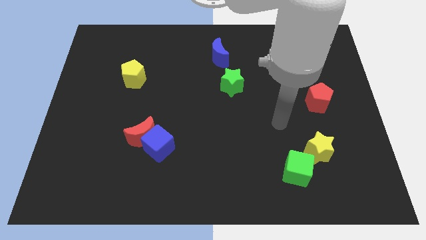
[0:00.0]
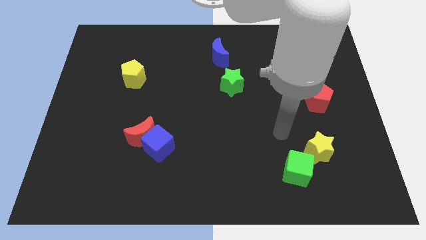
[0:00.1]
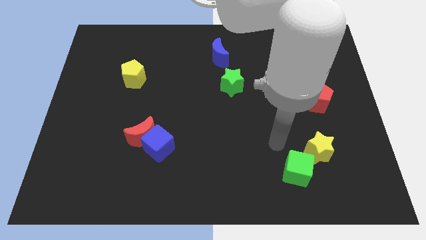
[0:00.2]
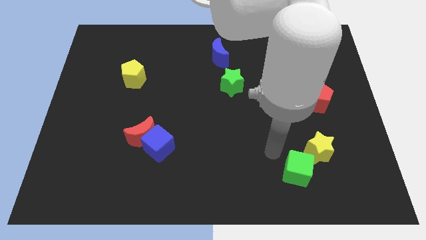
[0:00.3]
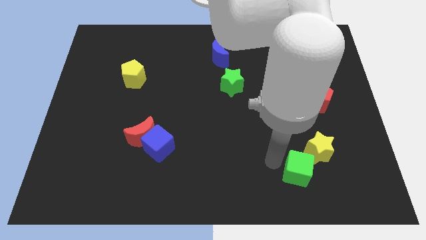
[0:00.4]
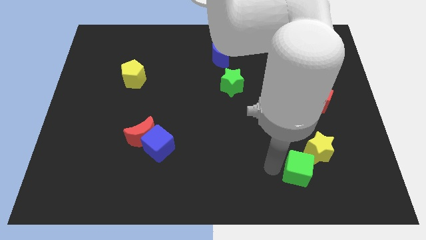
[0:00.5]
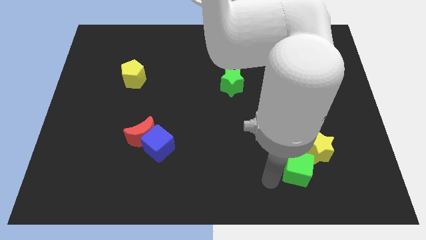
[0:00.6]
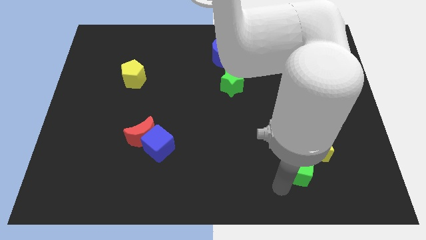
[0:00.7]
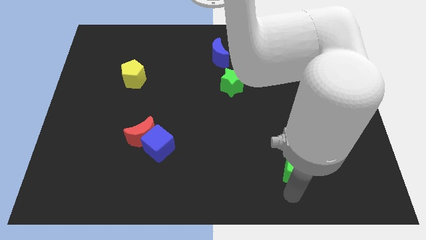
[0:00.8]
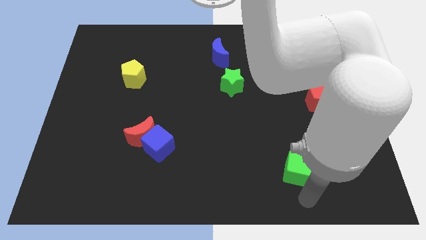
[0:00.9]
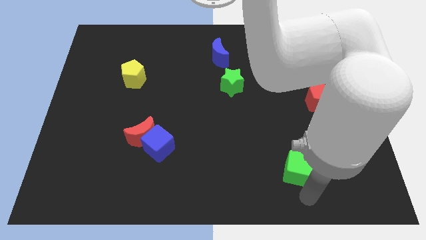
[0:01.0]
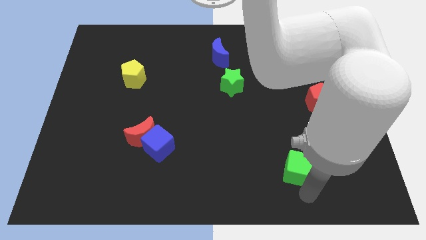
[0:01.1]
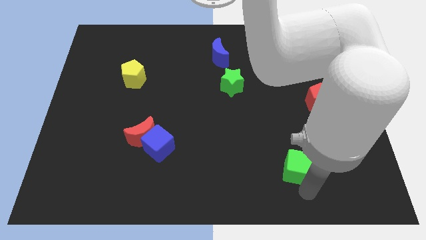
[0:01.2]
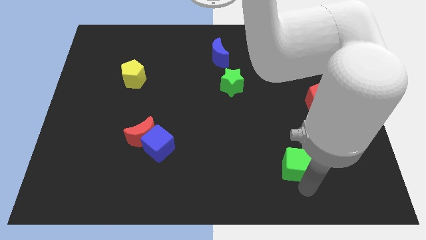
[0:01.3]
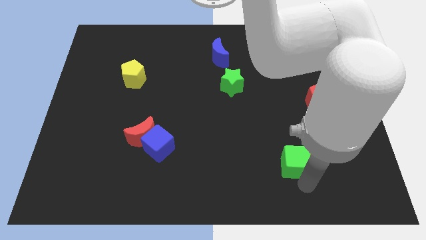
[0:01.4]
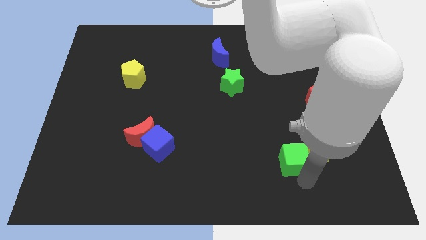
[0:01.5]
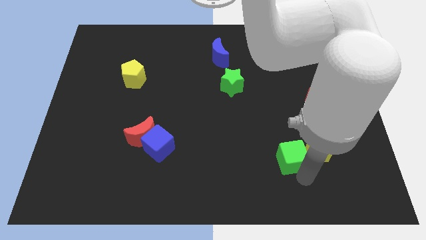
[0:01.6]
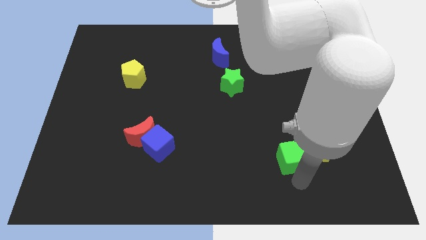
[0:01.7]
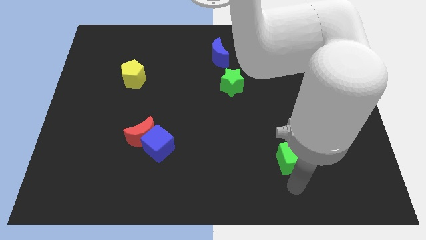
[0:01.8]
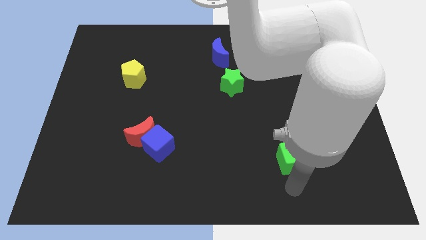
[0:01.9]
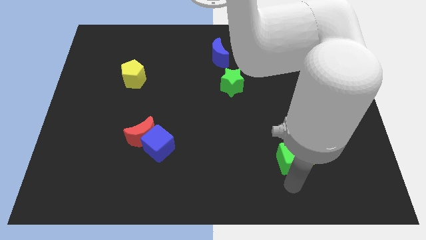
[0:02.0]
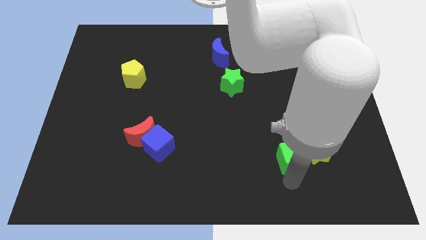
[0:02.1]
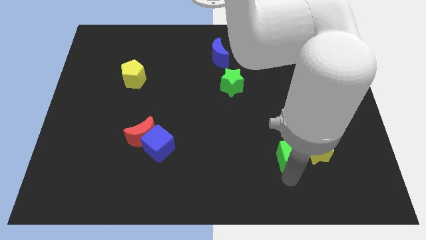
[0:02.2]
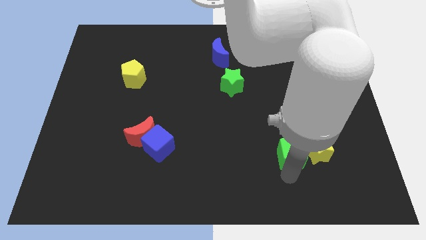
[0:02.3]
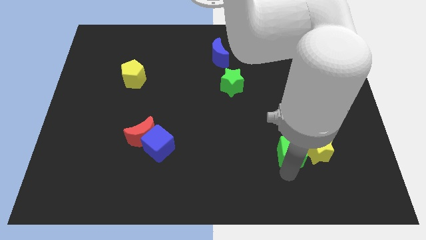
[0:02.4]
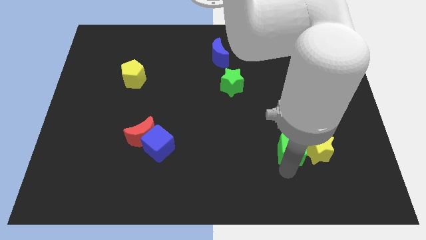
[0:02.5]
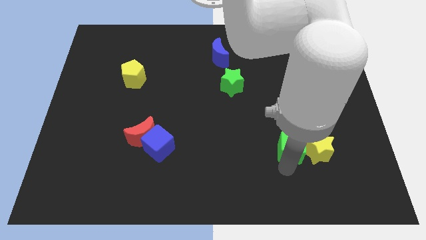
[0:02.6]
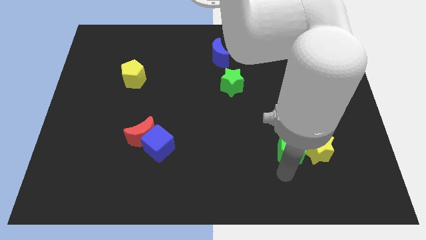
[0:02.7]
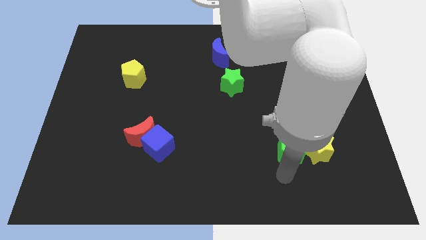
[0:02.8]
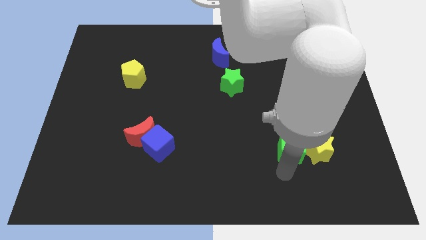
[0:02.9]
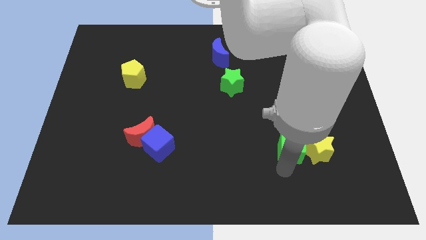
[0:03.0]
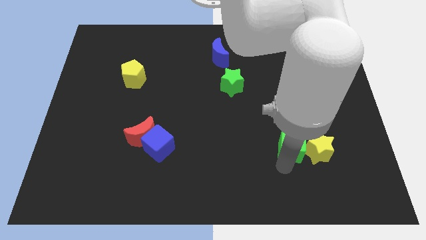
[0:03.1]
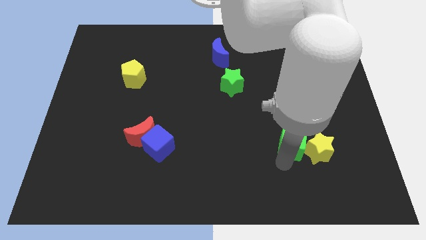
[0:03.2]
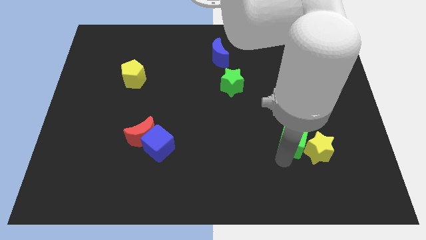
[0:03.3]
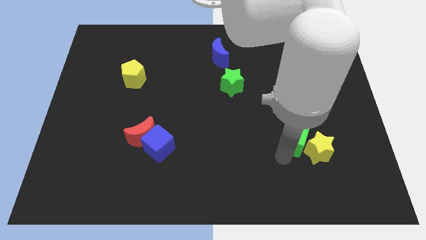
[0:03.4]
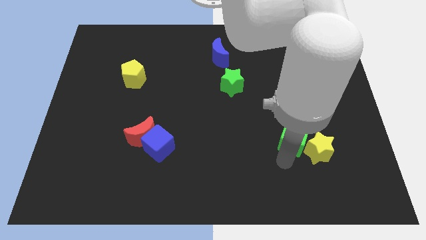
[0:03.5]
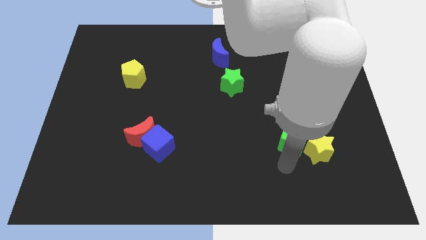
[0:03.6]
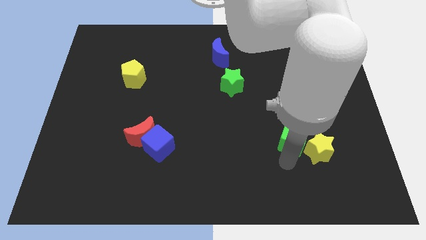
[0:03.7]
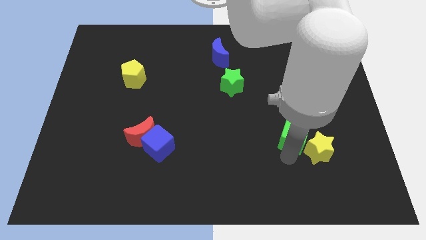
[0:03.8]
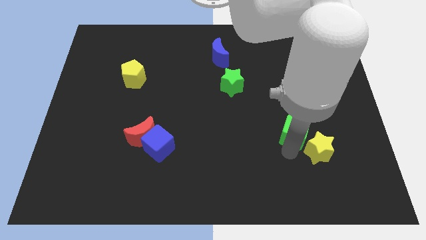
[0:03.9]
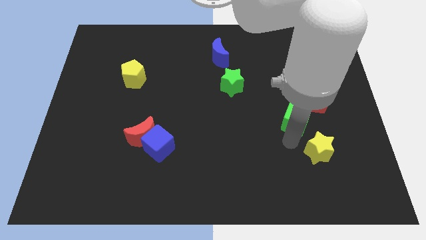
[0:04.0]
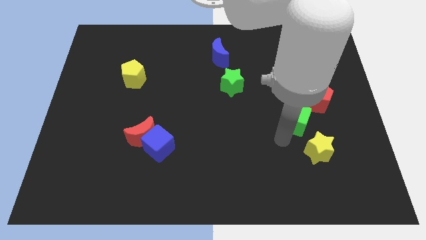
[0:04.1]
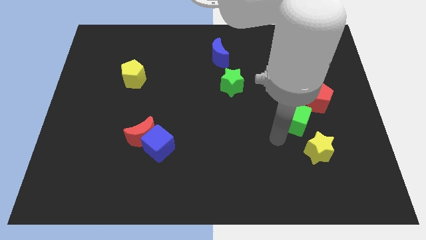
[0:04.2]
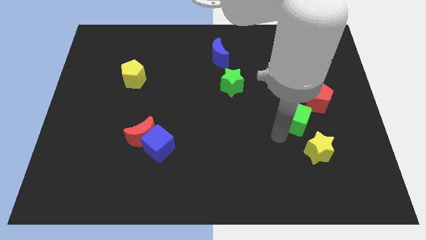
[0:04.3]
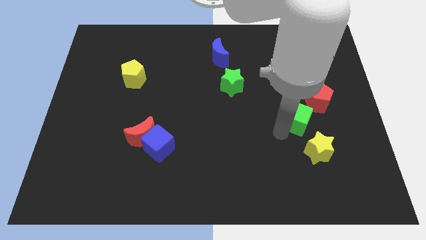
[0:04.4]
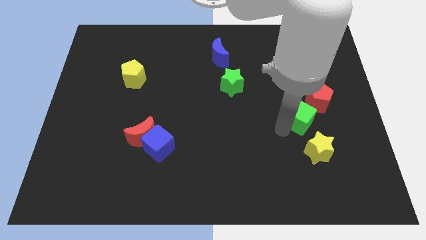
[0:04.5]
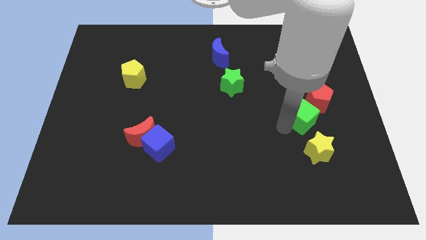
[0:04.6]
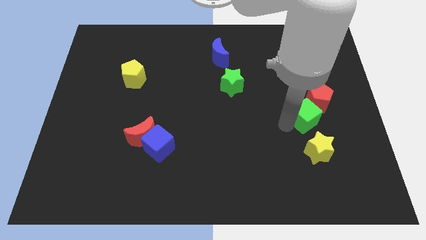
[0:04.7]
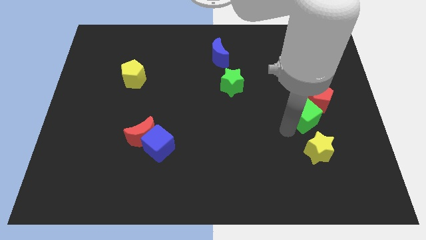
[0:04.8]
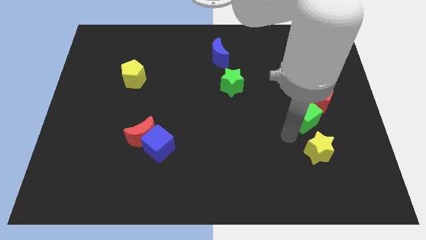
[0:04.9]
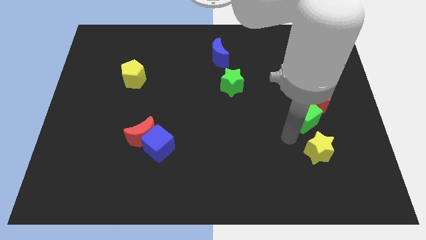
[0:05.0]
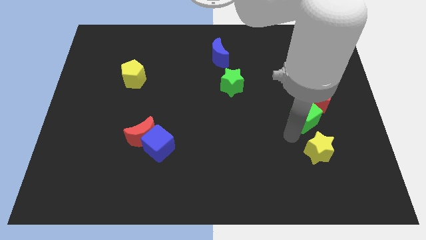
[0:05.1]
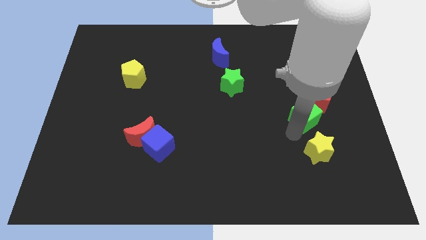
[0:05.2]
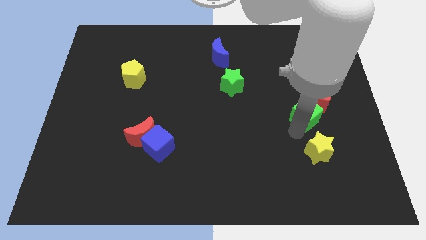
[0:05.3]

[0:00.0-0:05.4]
put the green cube to the red pentagon

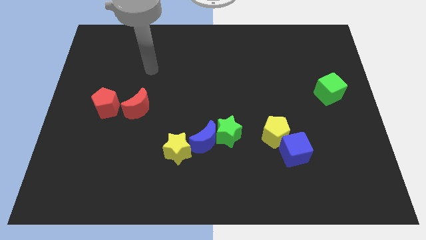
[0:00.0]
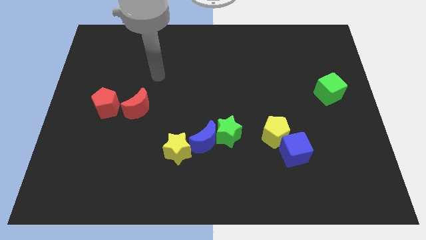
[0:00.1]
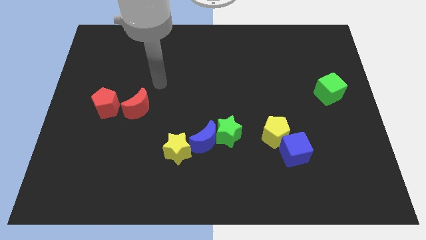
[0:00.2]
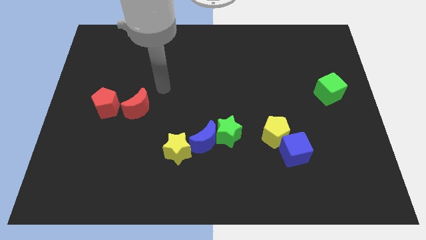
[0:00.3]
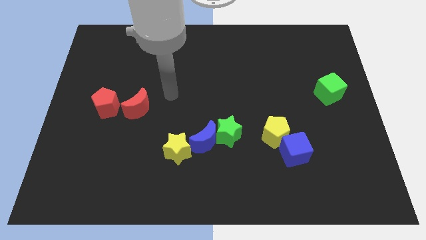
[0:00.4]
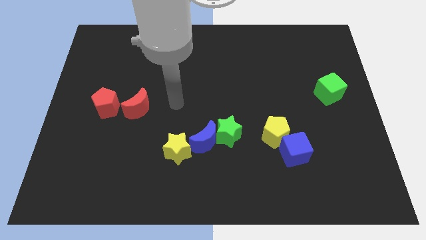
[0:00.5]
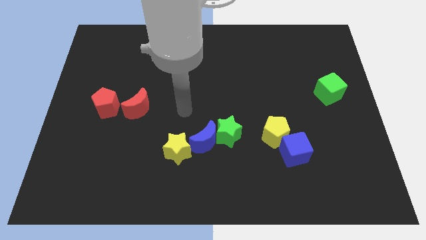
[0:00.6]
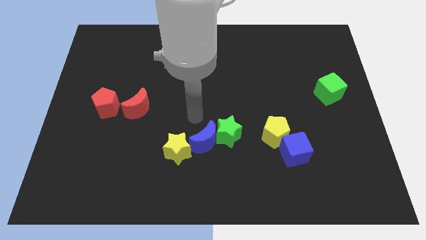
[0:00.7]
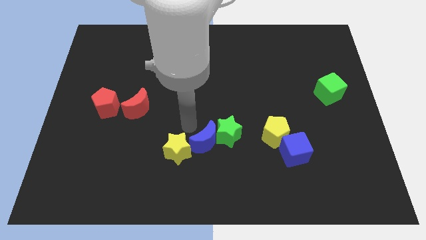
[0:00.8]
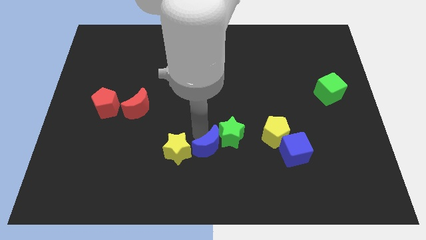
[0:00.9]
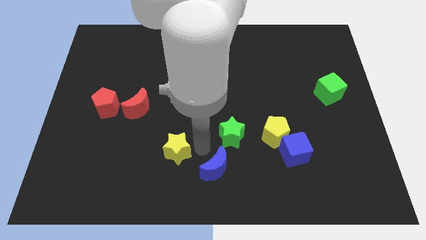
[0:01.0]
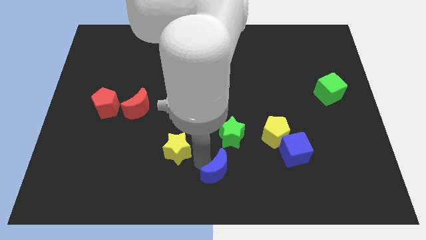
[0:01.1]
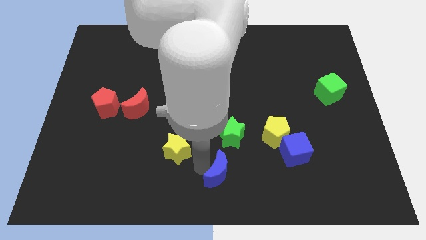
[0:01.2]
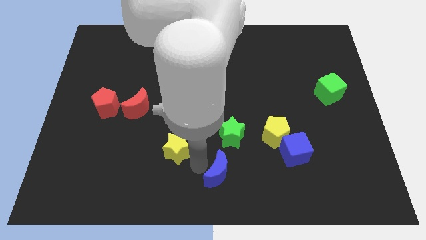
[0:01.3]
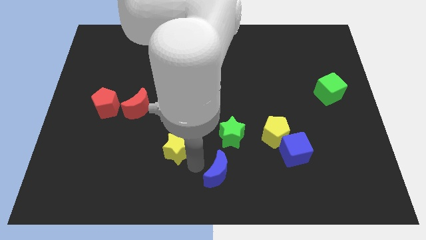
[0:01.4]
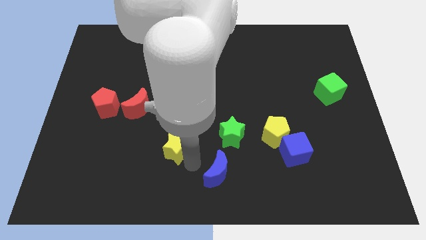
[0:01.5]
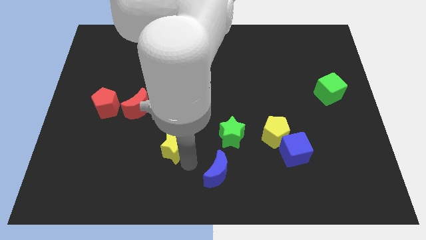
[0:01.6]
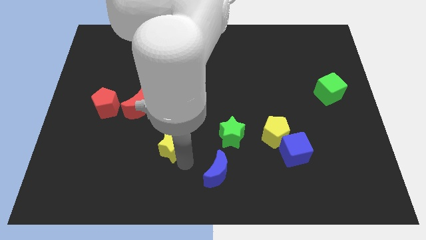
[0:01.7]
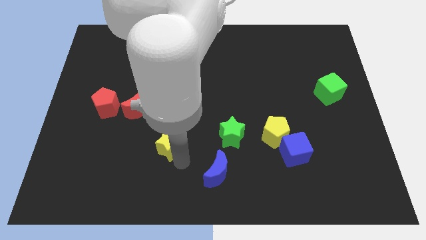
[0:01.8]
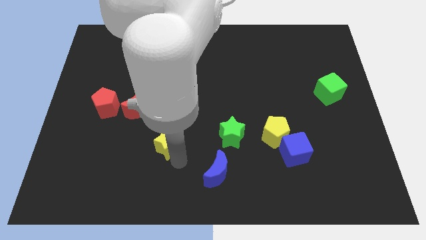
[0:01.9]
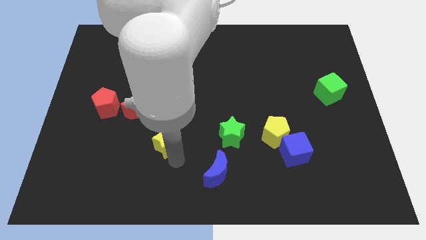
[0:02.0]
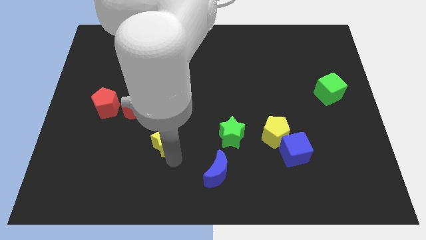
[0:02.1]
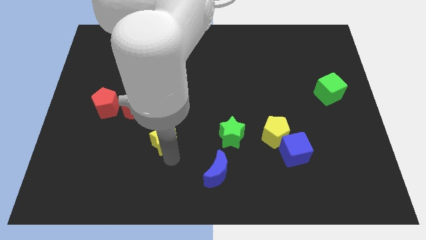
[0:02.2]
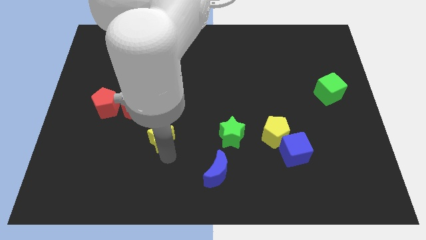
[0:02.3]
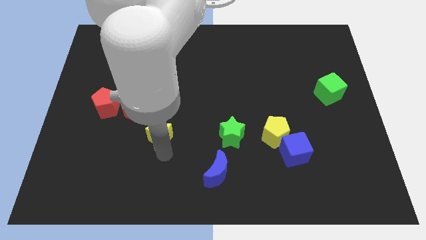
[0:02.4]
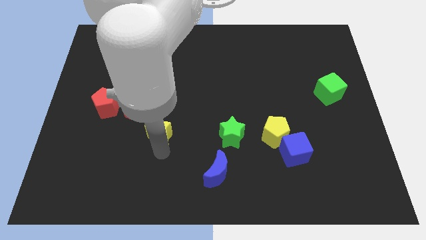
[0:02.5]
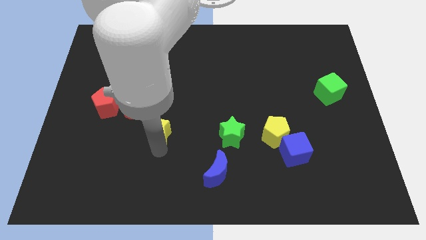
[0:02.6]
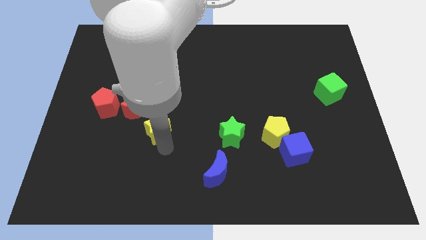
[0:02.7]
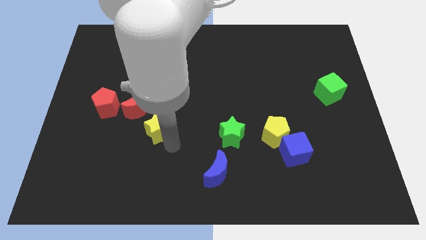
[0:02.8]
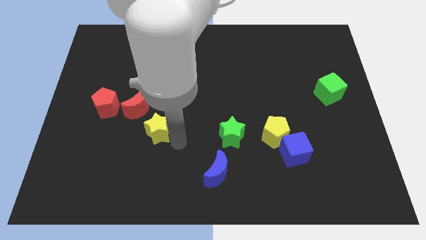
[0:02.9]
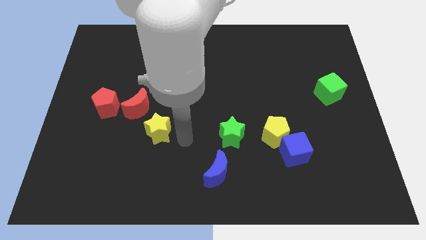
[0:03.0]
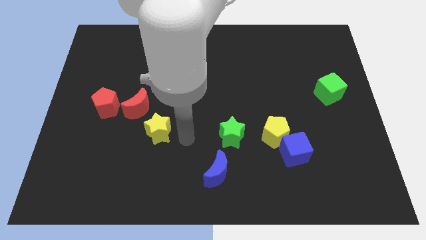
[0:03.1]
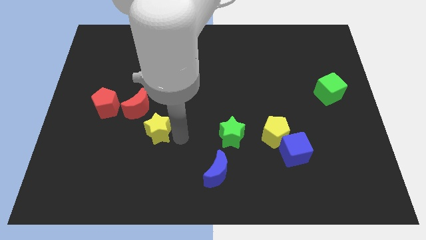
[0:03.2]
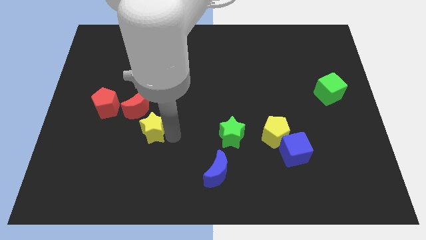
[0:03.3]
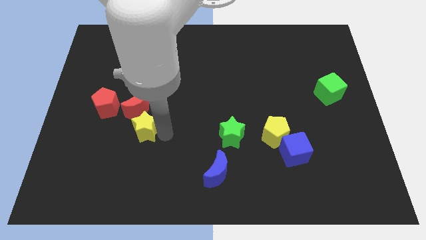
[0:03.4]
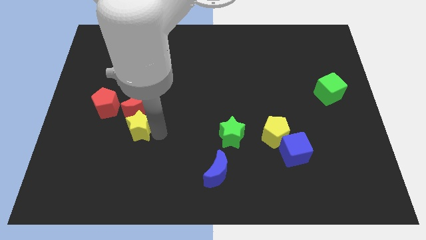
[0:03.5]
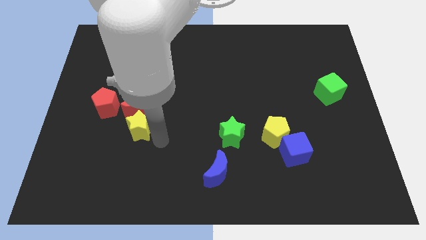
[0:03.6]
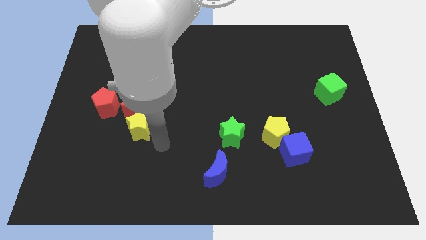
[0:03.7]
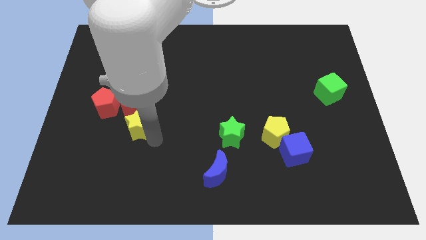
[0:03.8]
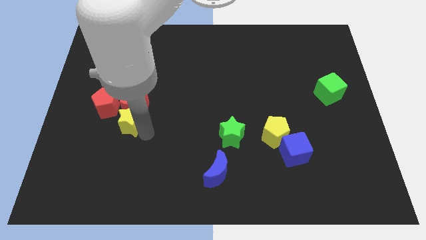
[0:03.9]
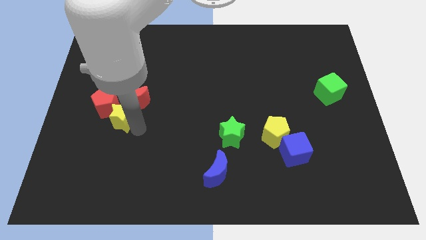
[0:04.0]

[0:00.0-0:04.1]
put the yellow star towards the red pentagon
